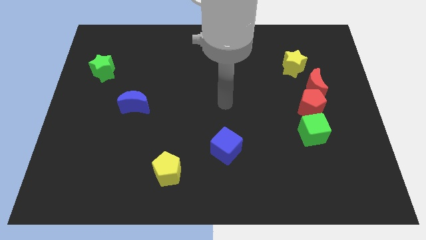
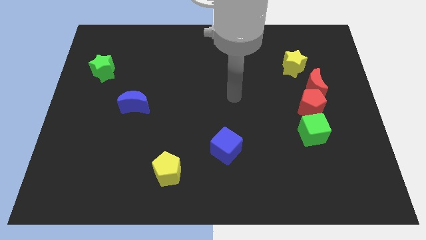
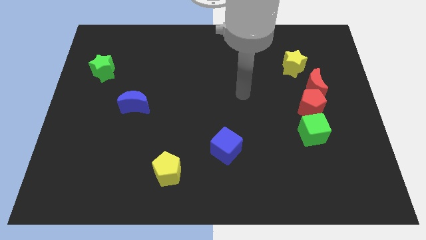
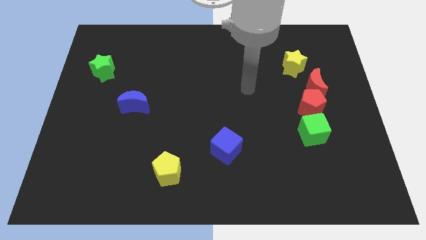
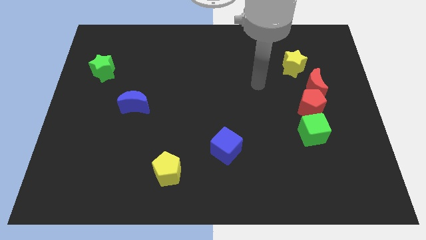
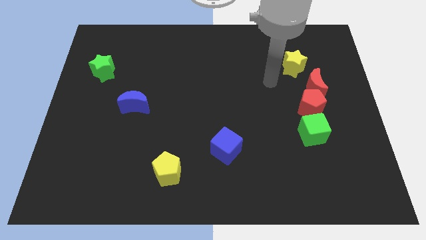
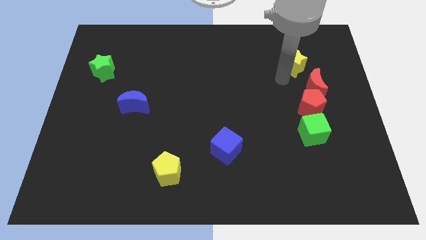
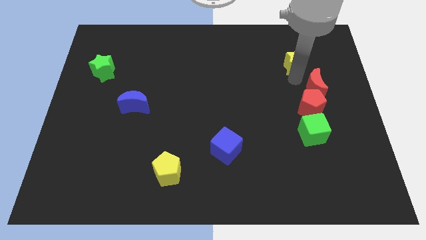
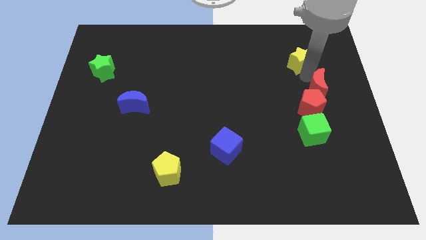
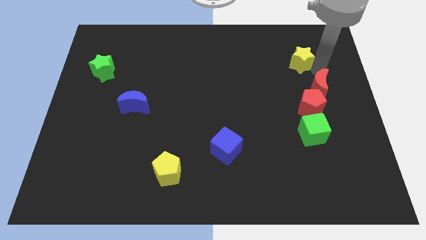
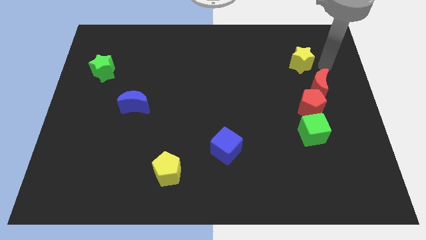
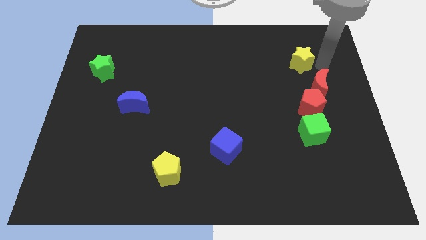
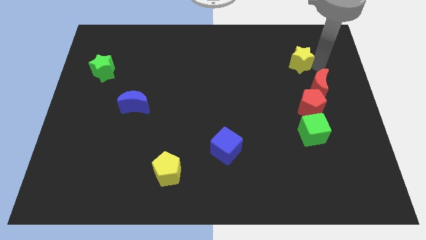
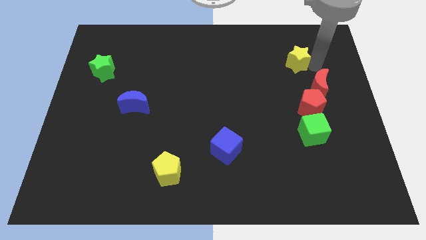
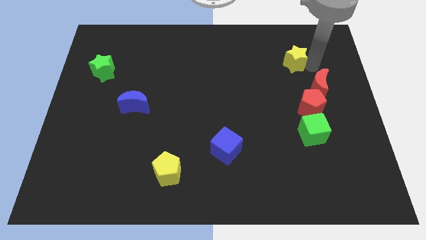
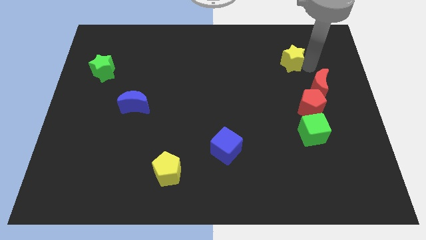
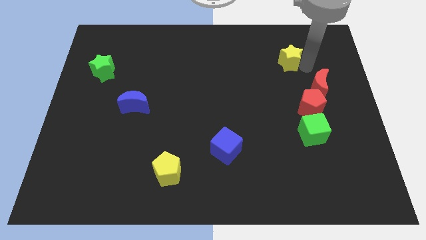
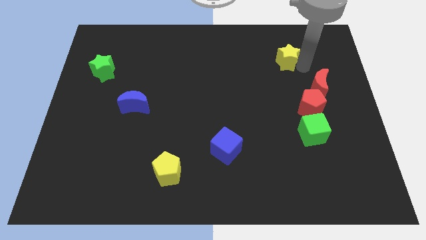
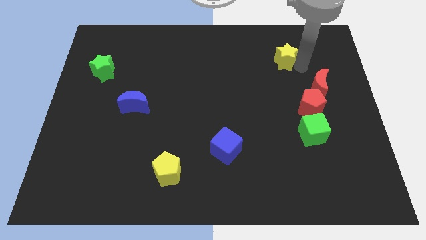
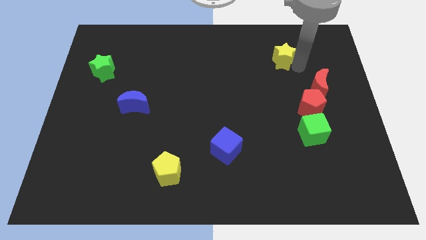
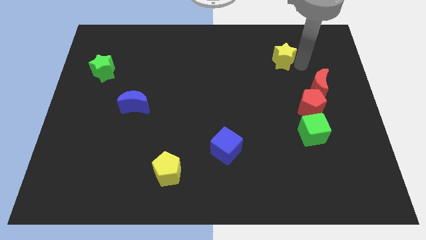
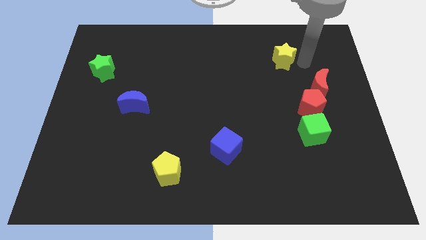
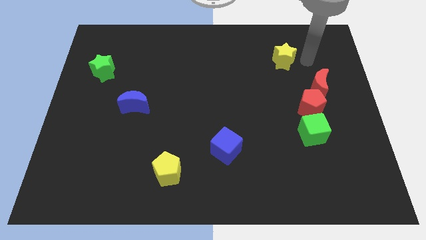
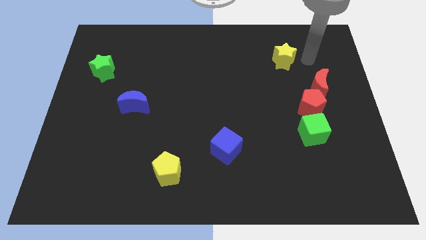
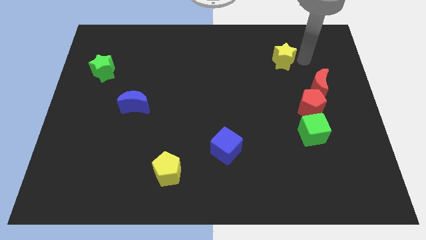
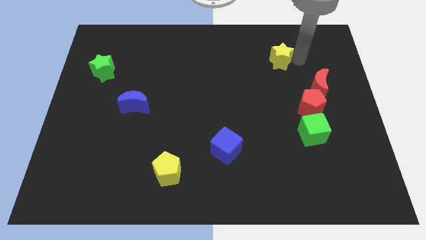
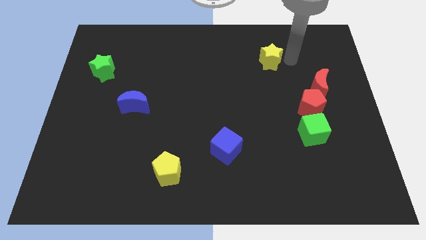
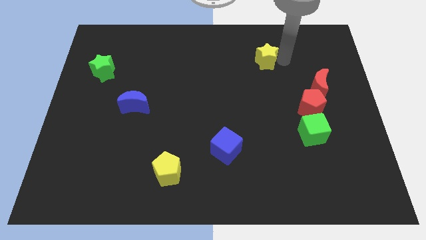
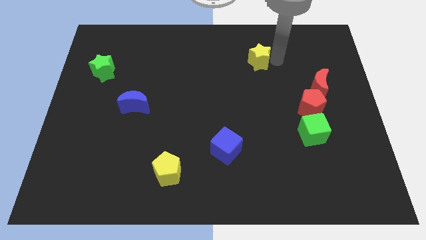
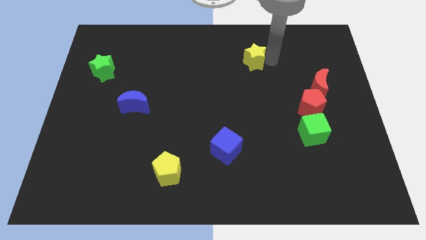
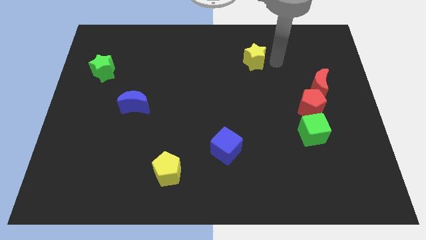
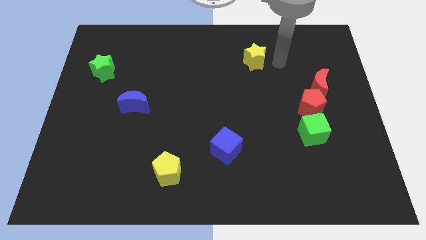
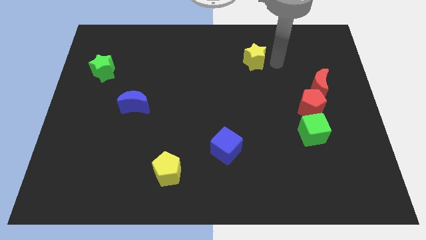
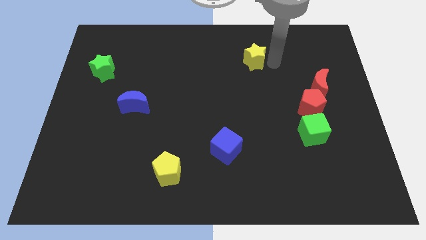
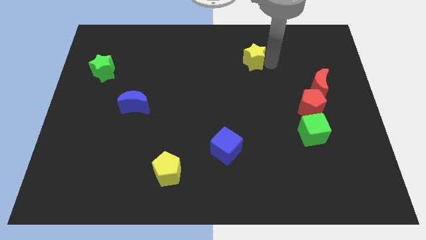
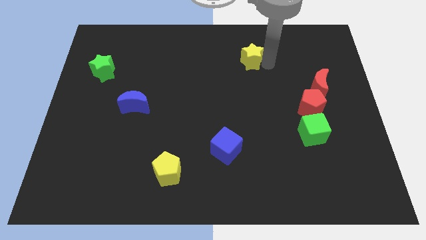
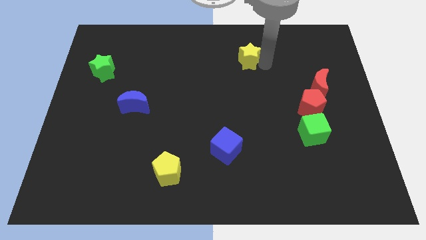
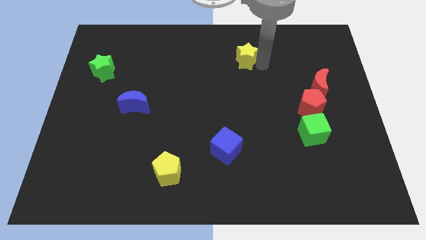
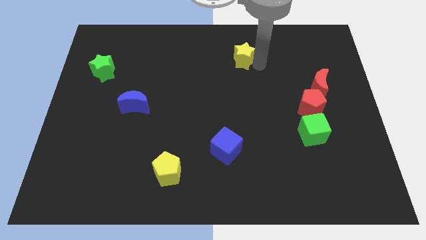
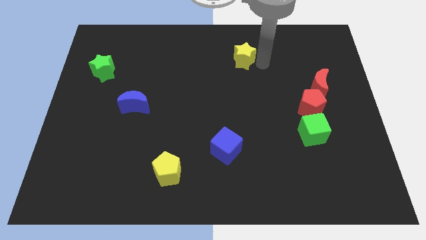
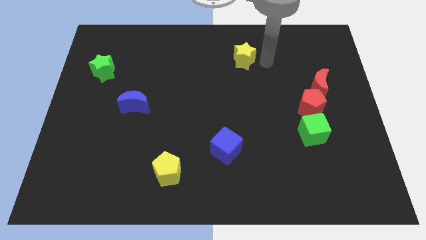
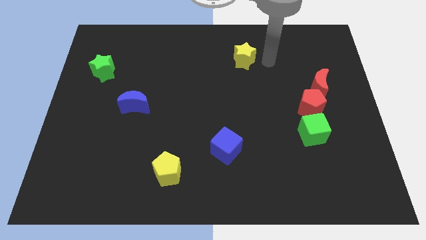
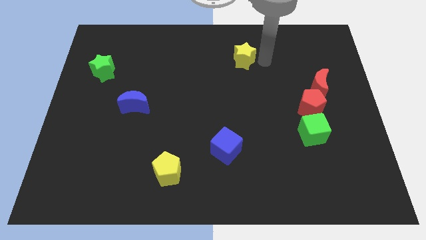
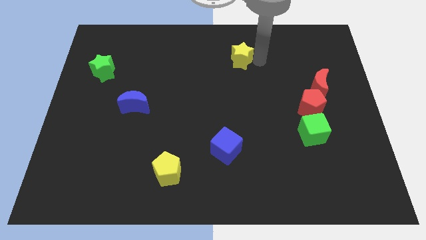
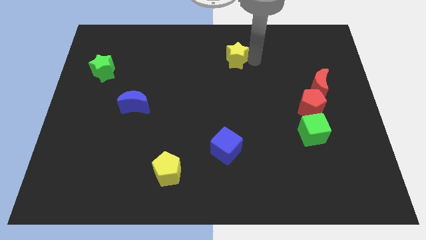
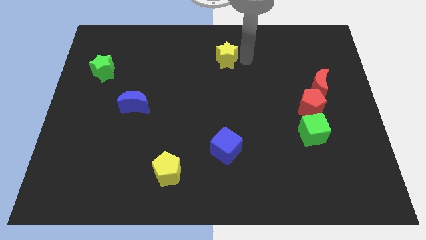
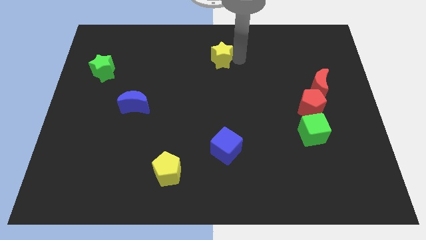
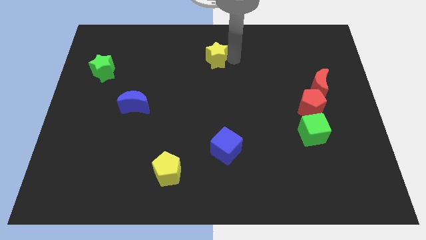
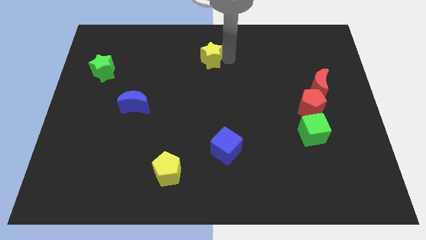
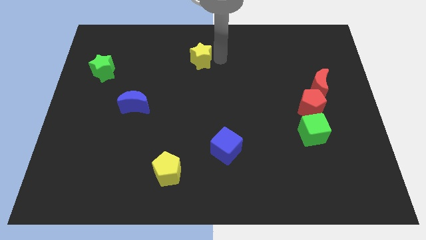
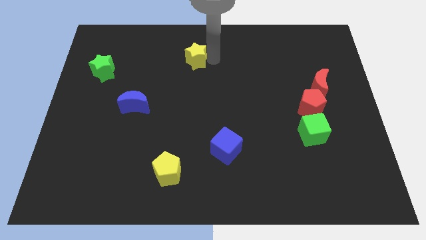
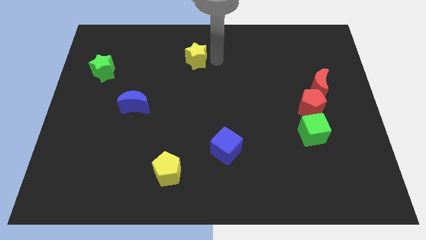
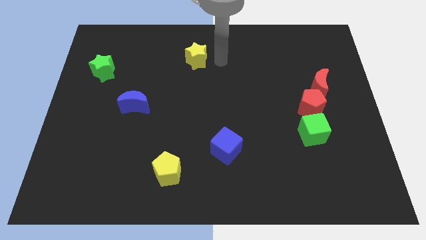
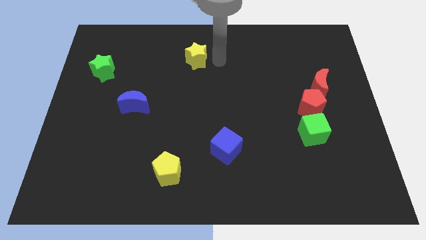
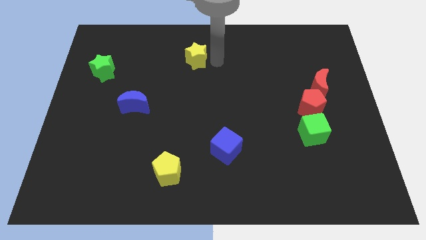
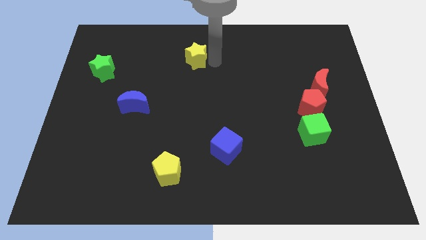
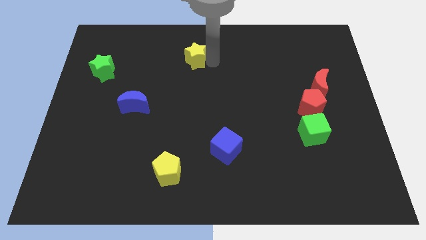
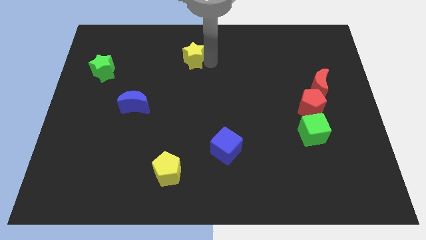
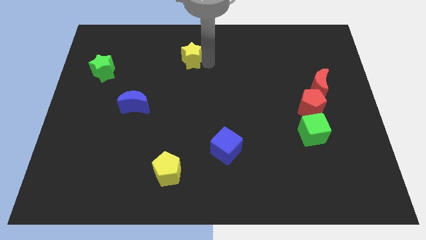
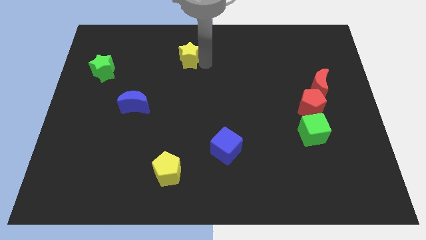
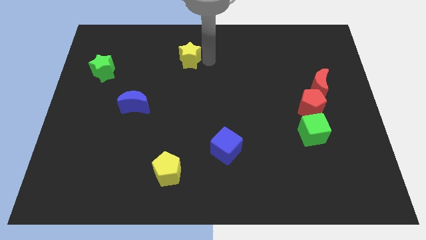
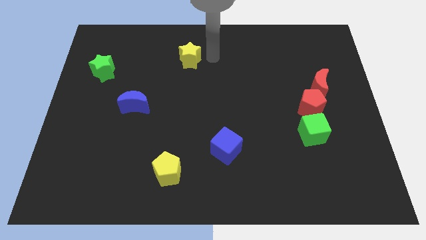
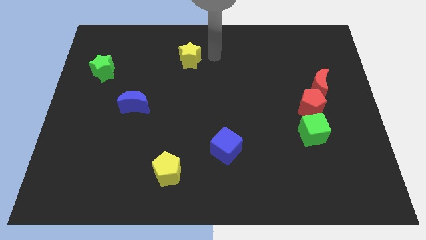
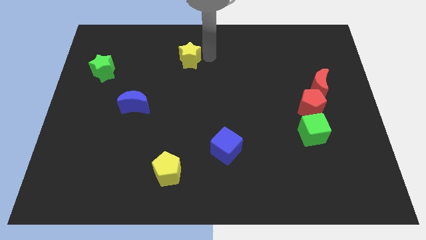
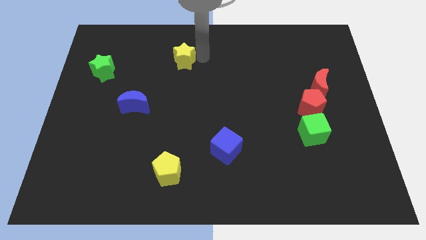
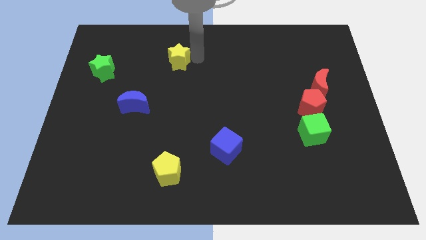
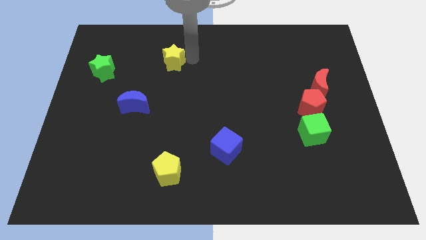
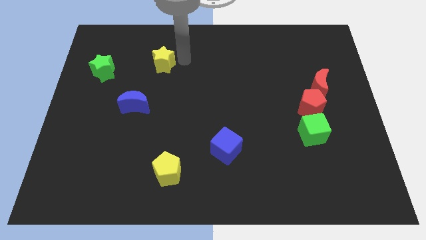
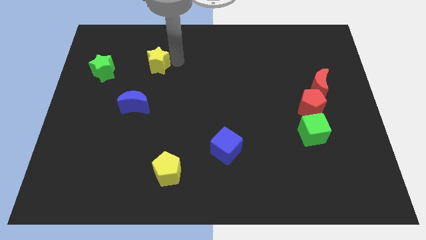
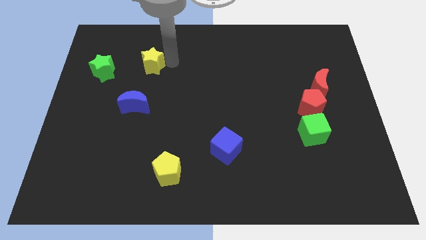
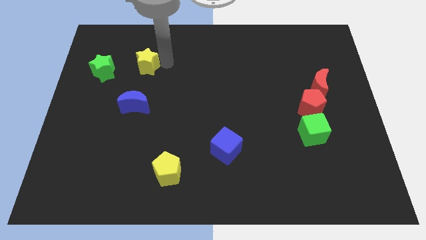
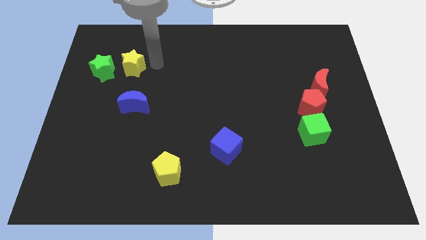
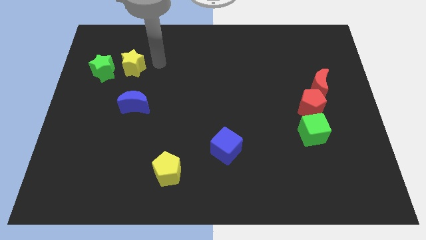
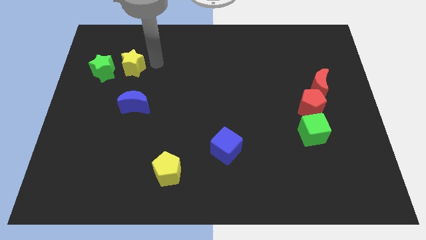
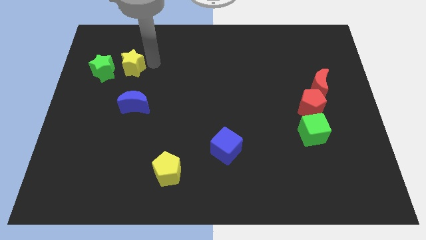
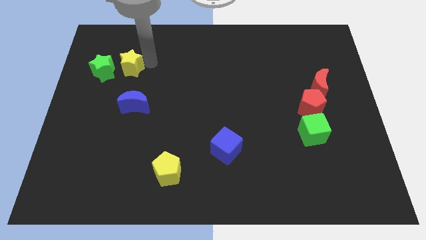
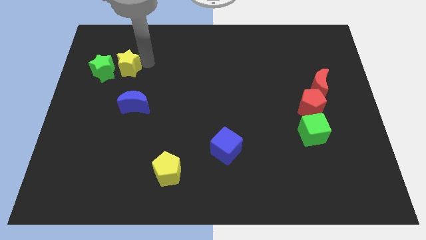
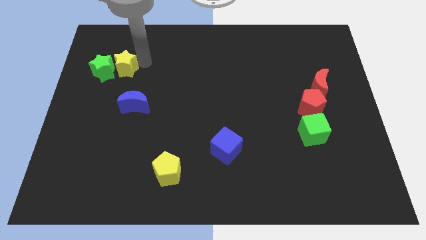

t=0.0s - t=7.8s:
put the yellow star towards the green star

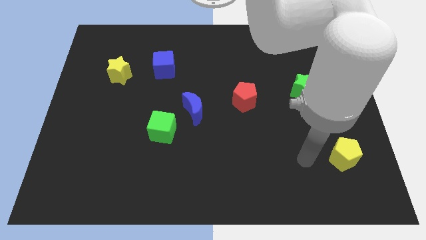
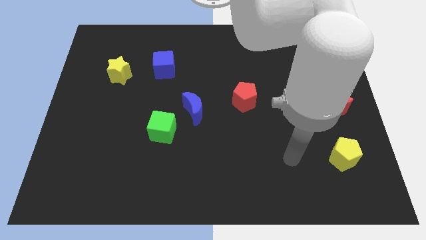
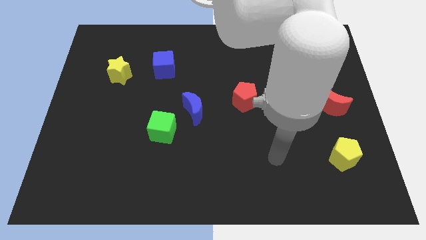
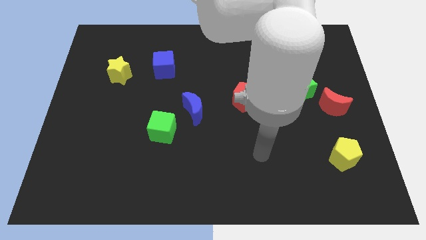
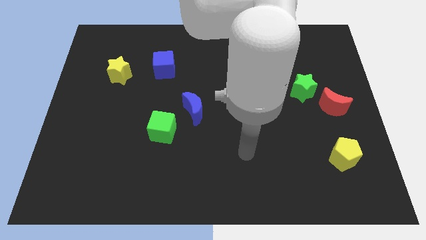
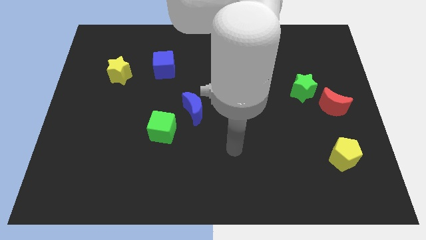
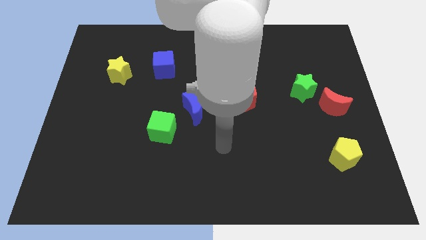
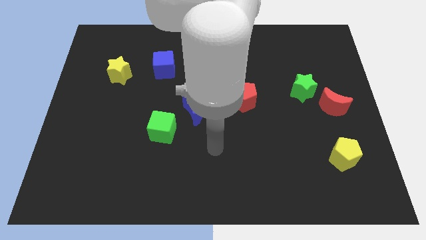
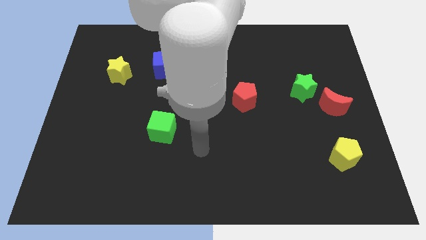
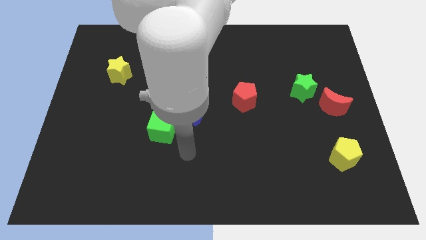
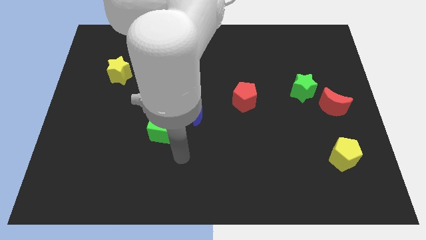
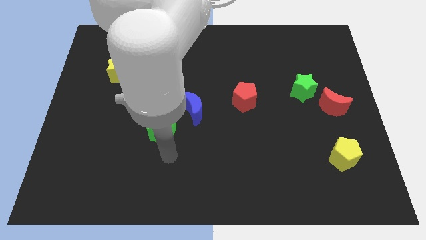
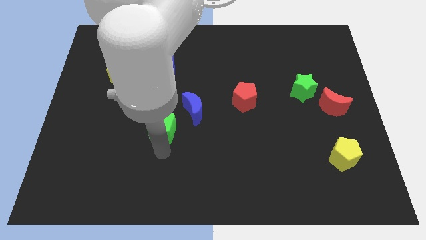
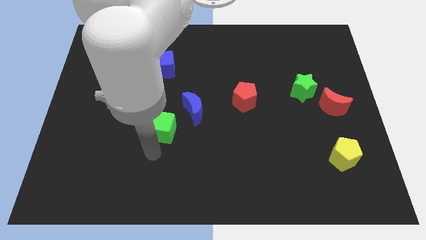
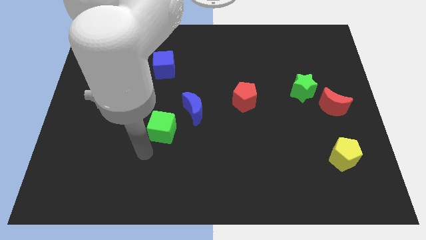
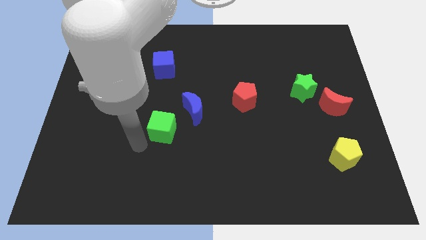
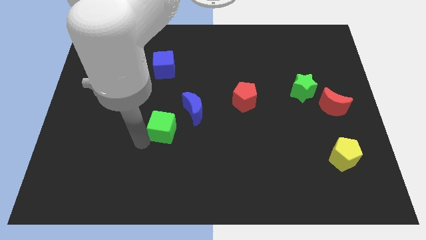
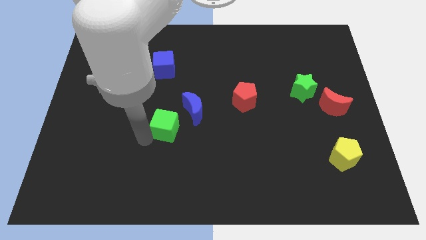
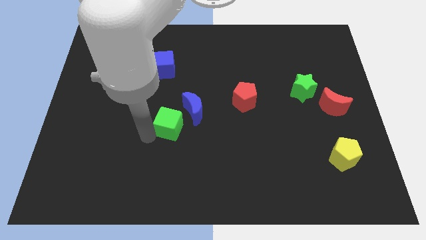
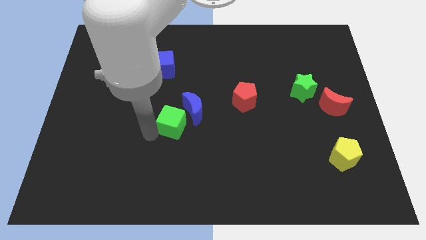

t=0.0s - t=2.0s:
push the green cube towards the blue moon
